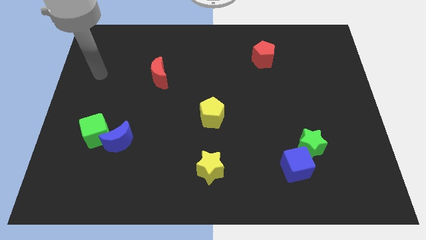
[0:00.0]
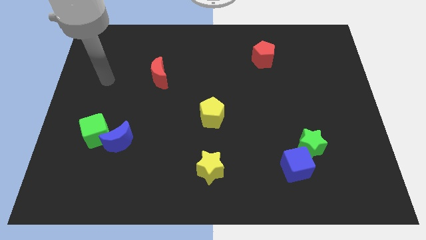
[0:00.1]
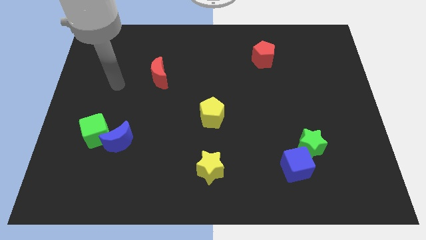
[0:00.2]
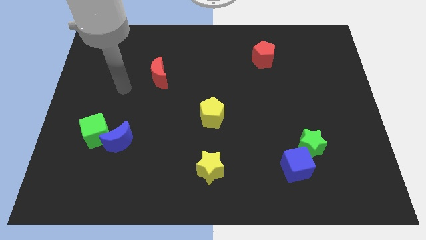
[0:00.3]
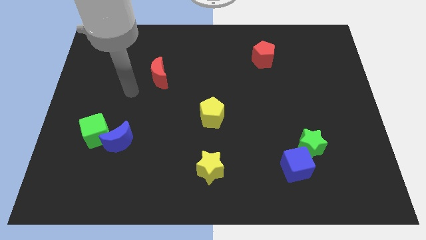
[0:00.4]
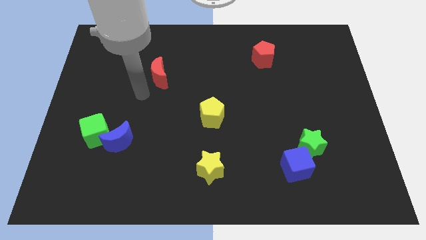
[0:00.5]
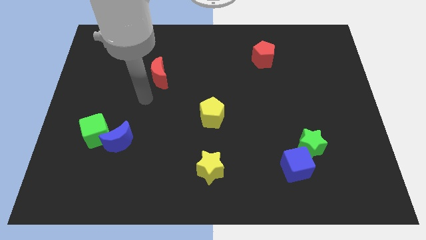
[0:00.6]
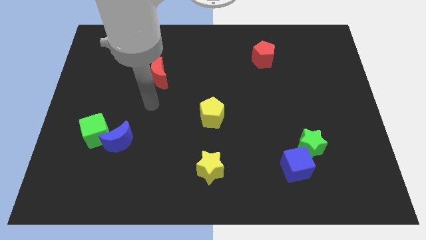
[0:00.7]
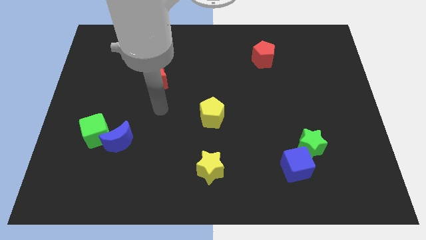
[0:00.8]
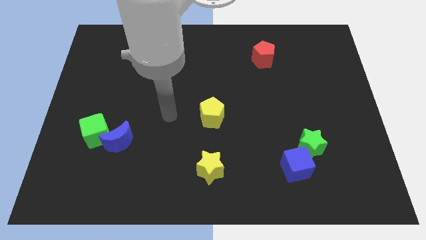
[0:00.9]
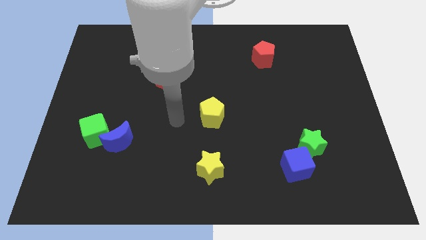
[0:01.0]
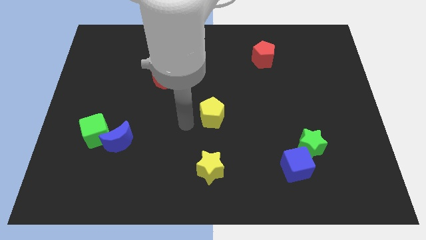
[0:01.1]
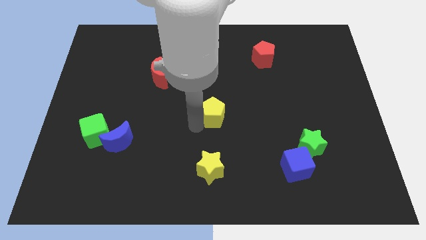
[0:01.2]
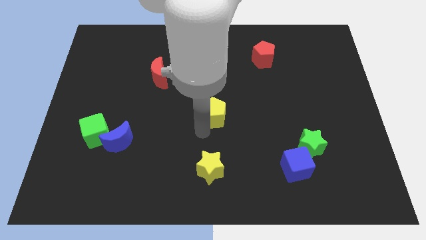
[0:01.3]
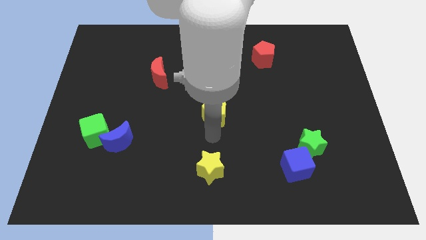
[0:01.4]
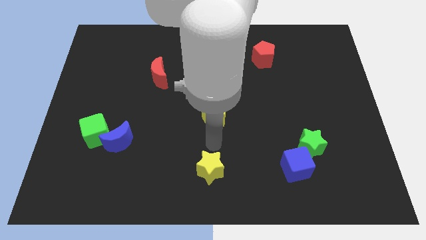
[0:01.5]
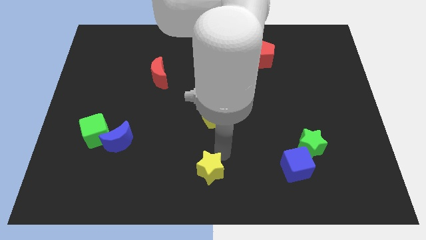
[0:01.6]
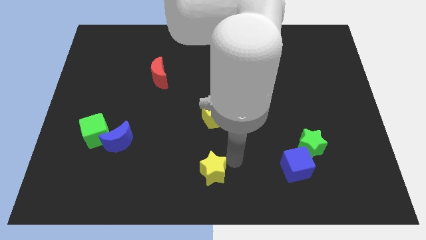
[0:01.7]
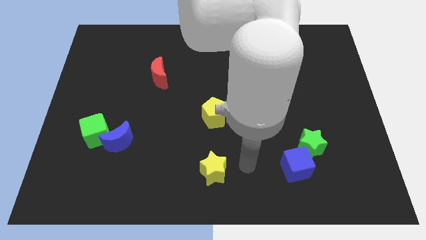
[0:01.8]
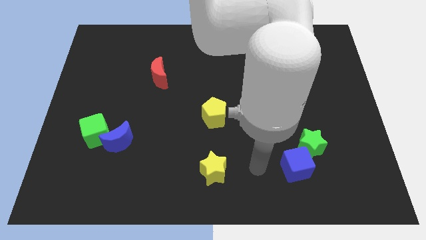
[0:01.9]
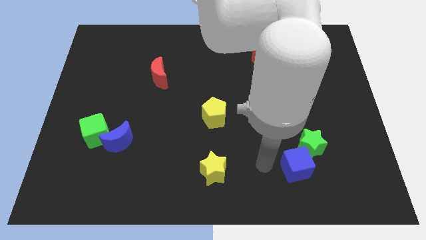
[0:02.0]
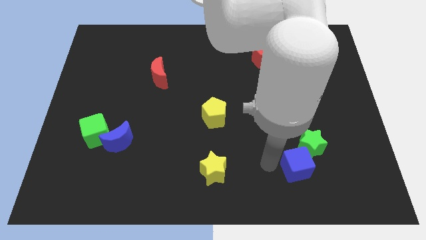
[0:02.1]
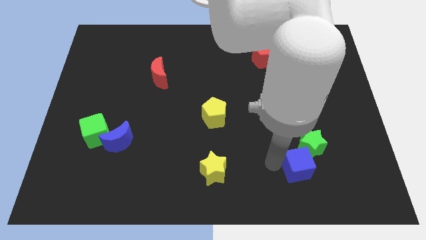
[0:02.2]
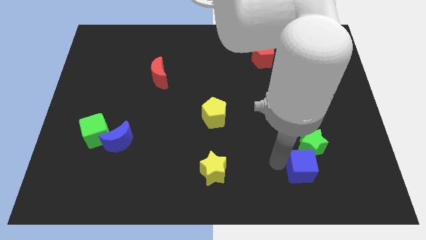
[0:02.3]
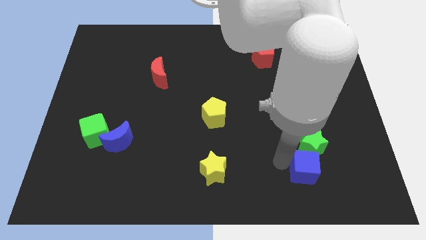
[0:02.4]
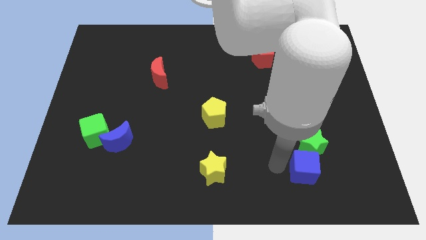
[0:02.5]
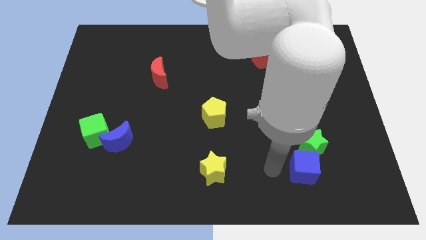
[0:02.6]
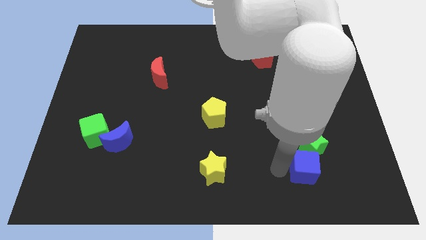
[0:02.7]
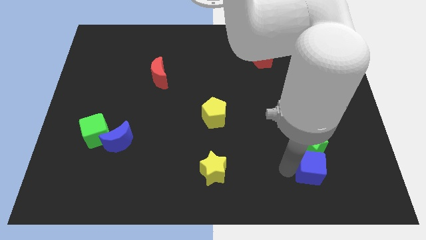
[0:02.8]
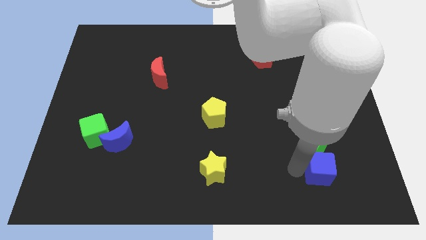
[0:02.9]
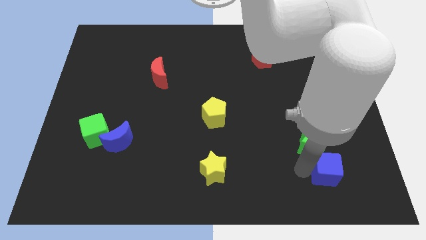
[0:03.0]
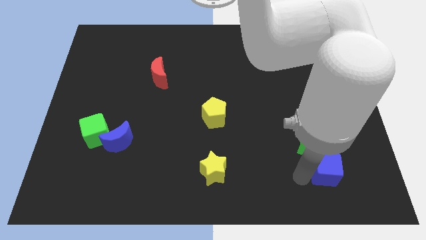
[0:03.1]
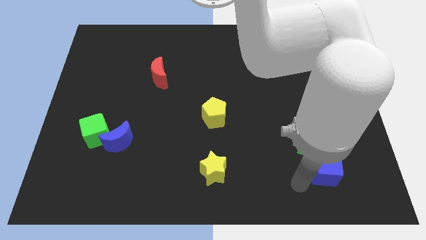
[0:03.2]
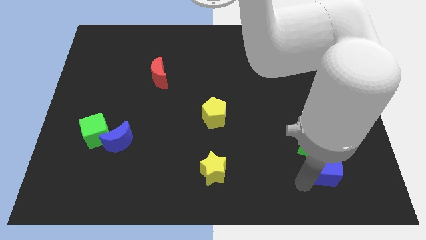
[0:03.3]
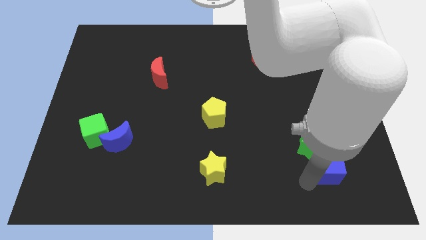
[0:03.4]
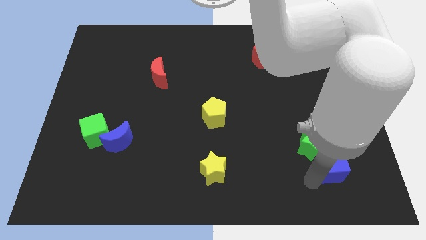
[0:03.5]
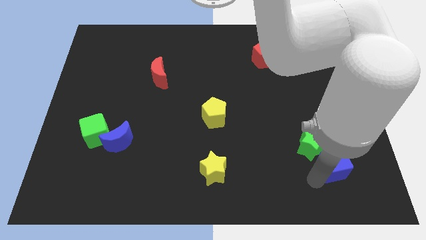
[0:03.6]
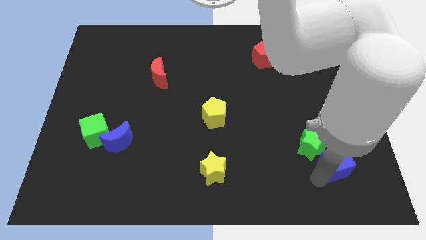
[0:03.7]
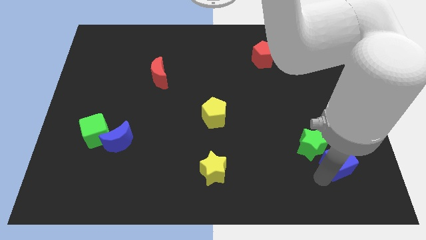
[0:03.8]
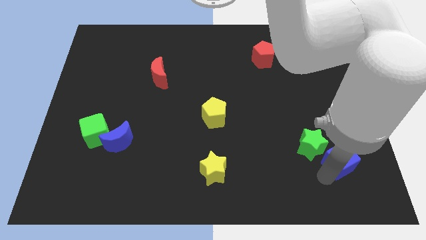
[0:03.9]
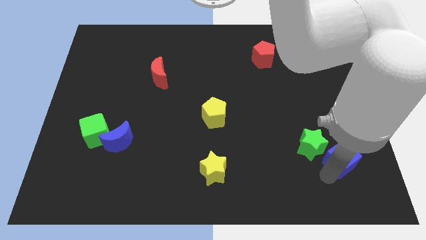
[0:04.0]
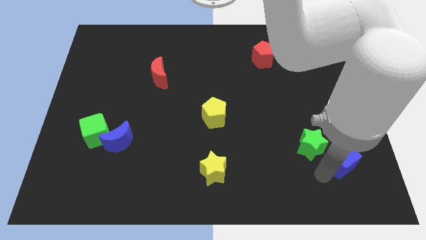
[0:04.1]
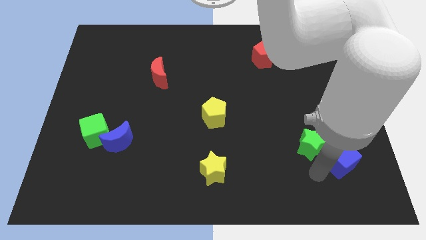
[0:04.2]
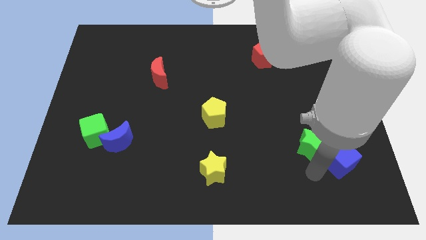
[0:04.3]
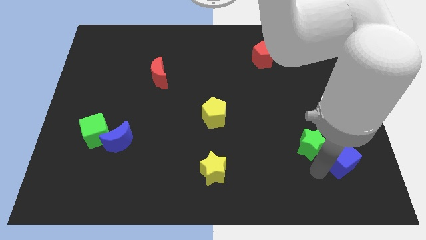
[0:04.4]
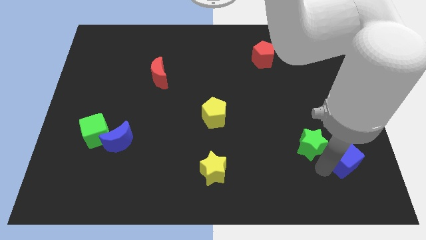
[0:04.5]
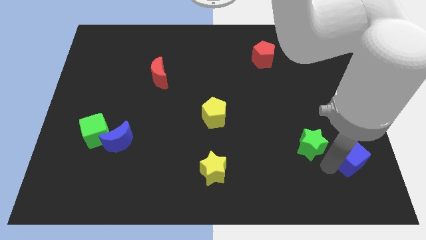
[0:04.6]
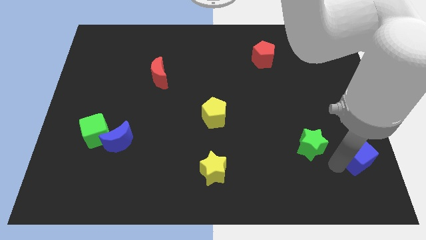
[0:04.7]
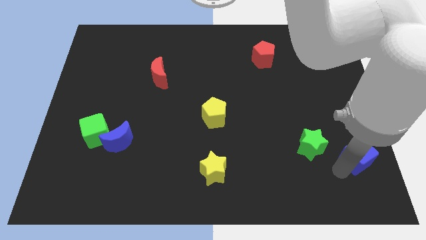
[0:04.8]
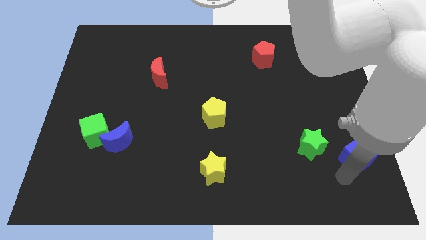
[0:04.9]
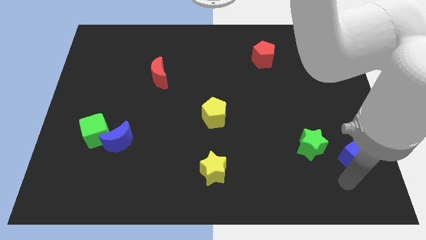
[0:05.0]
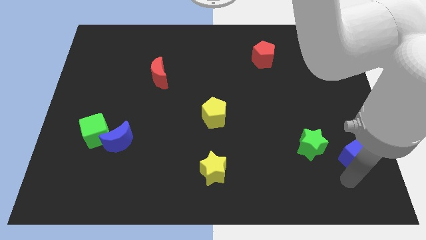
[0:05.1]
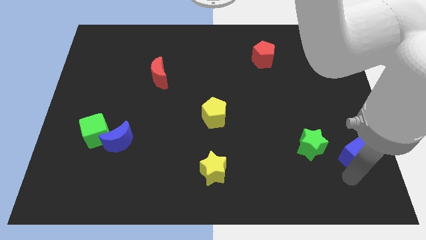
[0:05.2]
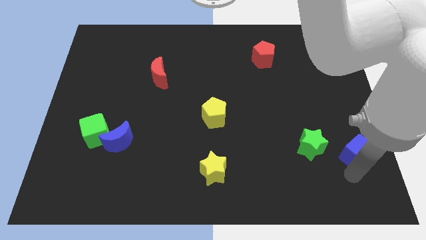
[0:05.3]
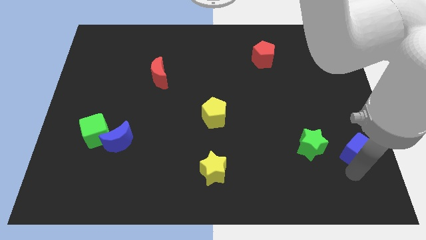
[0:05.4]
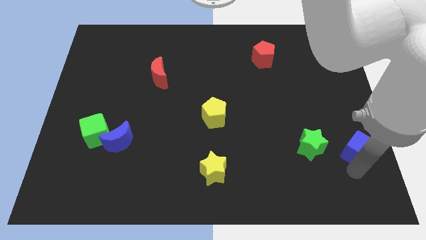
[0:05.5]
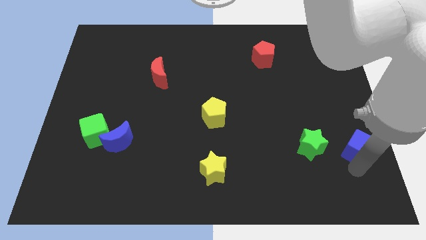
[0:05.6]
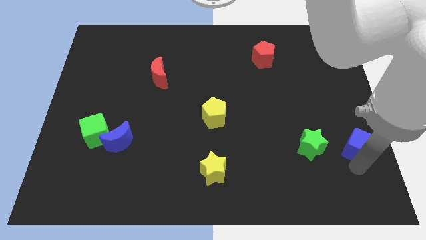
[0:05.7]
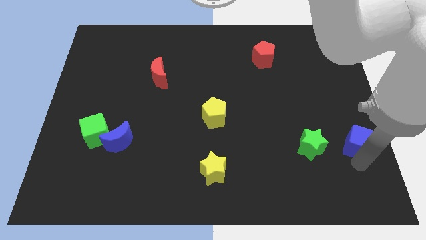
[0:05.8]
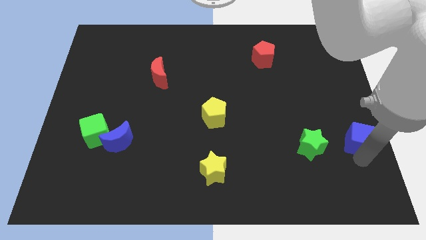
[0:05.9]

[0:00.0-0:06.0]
slide the blue cube to the center right

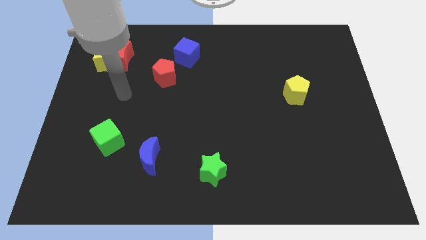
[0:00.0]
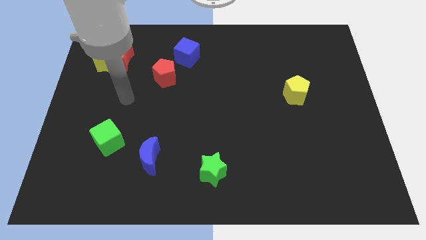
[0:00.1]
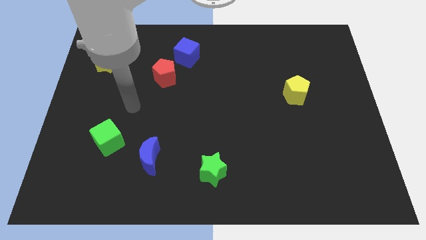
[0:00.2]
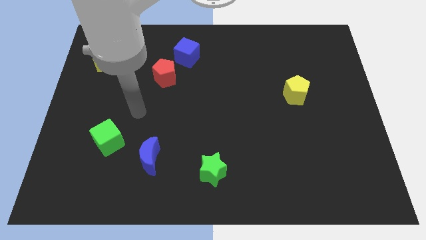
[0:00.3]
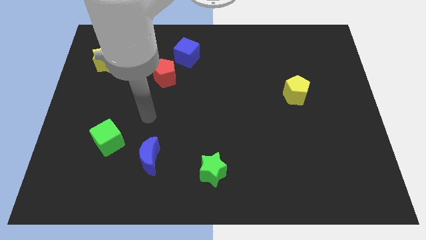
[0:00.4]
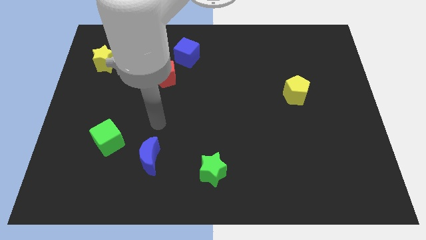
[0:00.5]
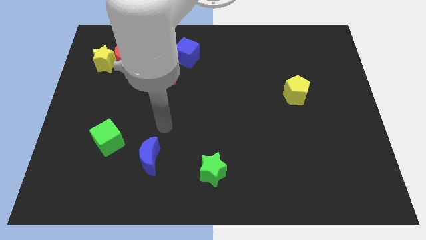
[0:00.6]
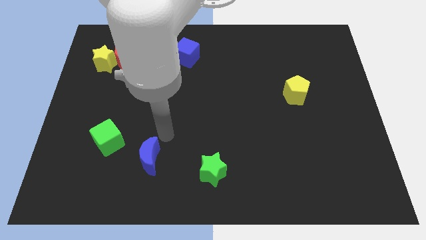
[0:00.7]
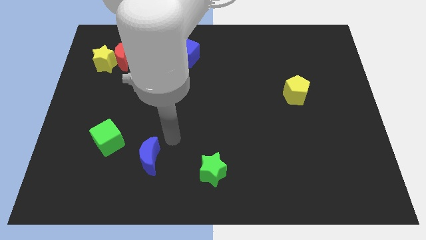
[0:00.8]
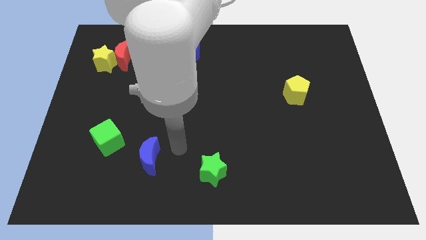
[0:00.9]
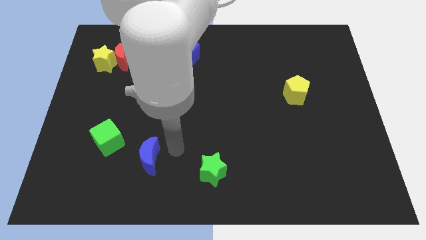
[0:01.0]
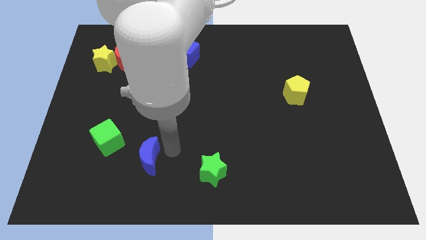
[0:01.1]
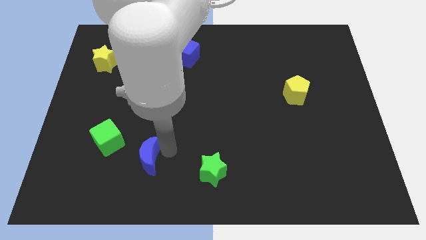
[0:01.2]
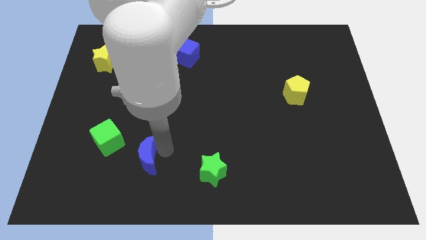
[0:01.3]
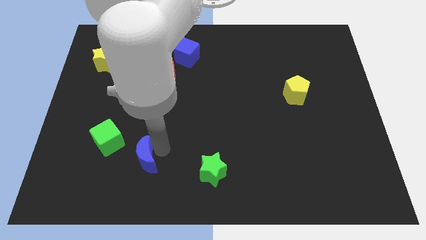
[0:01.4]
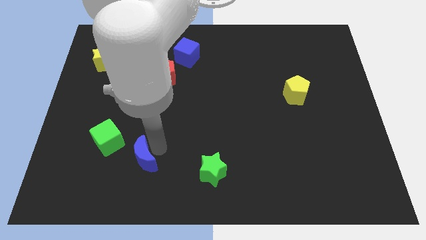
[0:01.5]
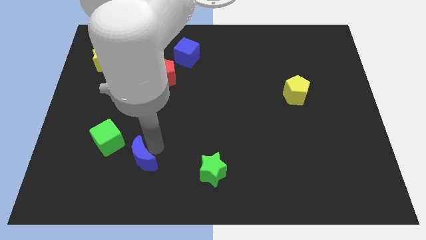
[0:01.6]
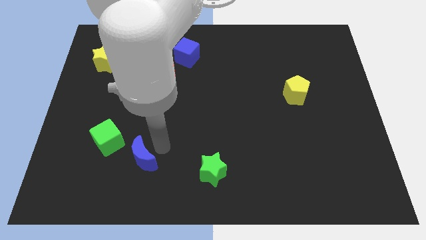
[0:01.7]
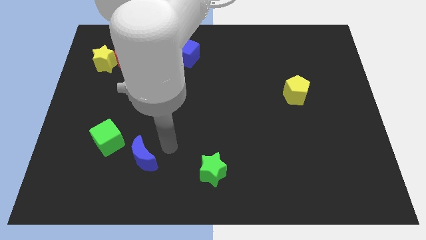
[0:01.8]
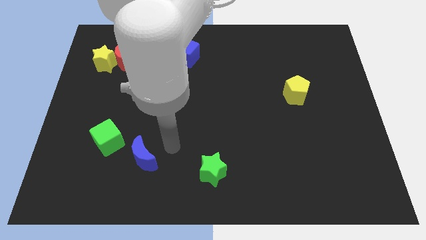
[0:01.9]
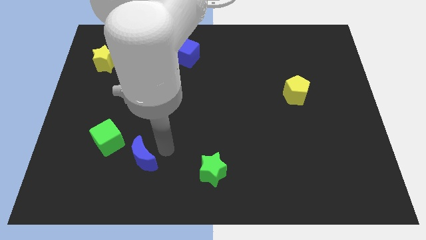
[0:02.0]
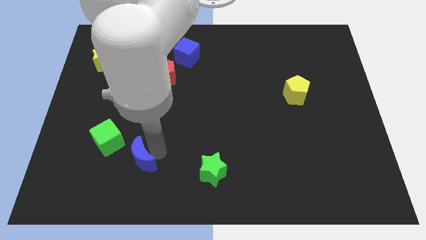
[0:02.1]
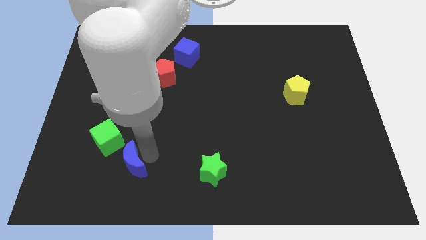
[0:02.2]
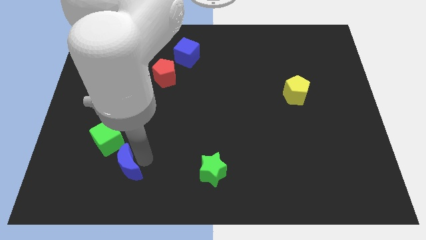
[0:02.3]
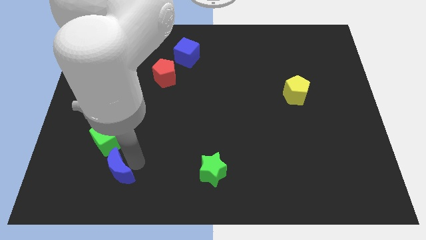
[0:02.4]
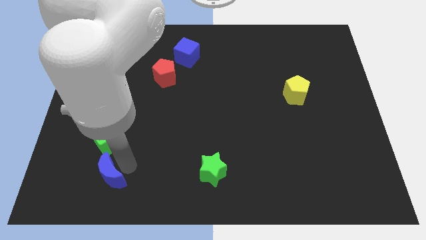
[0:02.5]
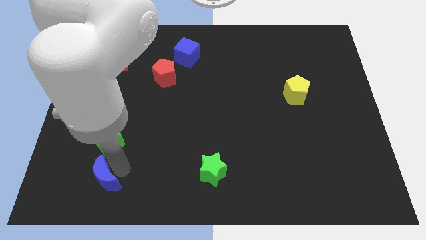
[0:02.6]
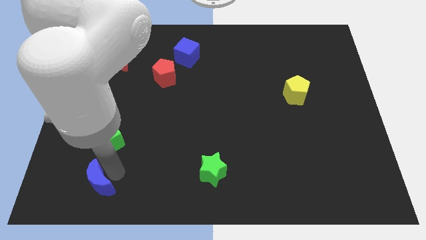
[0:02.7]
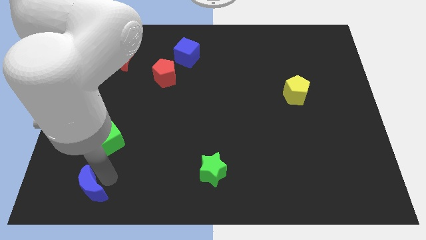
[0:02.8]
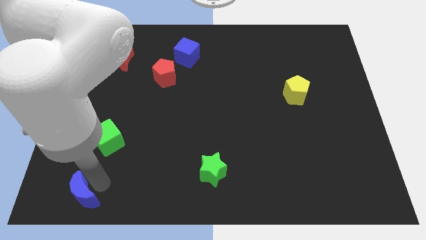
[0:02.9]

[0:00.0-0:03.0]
move the blue moon to the bottom left of the board
